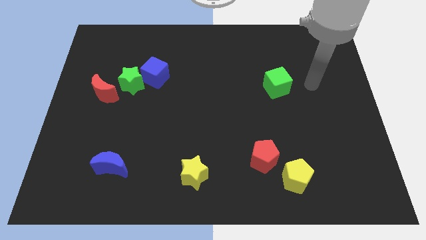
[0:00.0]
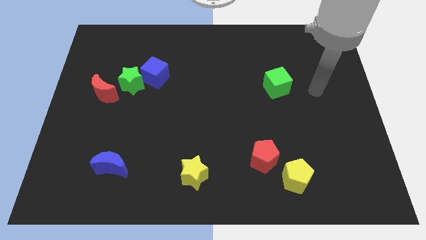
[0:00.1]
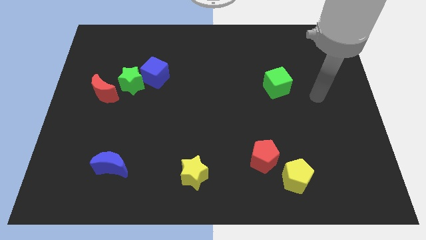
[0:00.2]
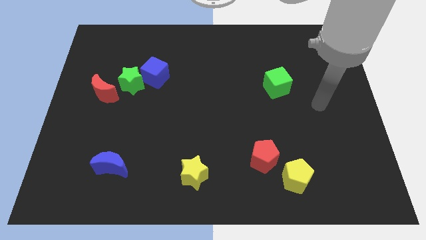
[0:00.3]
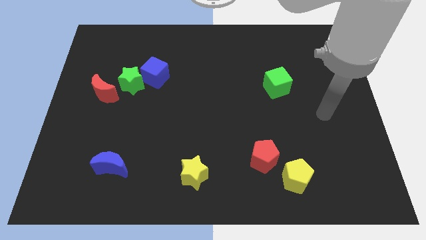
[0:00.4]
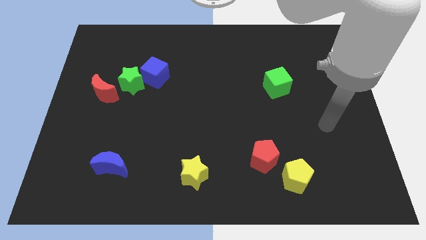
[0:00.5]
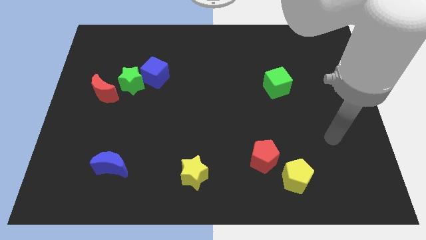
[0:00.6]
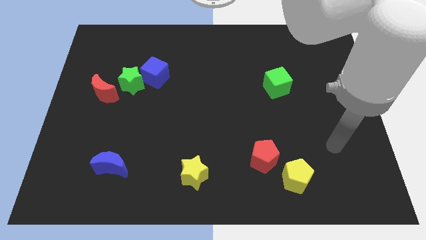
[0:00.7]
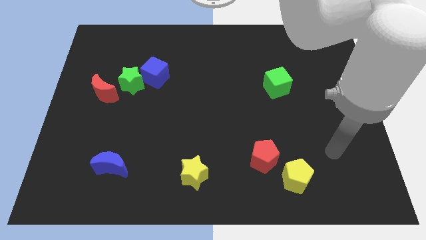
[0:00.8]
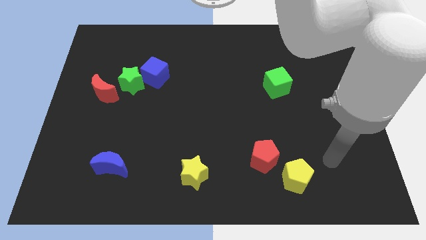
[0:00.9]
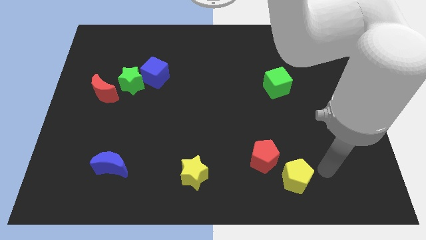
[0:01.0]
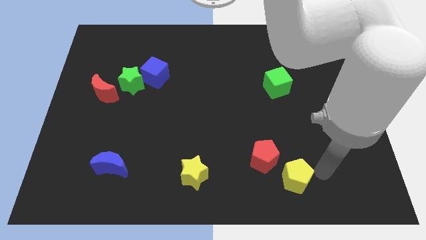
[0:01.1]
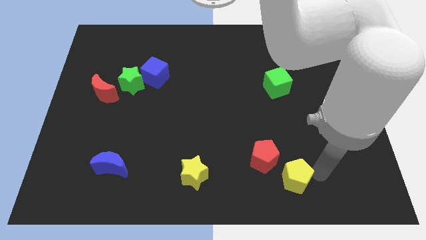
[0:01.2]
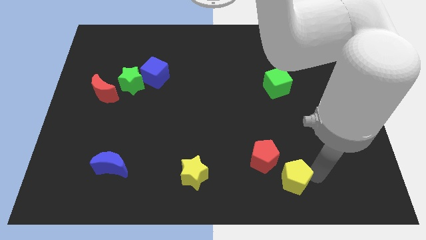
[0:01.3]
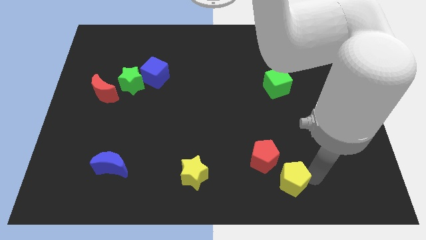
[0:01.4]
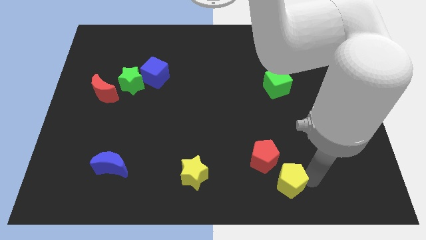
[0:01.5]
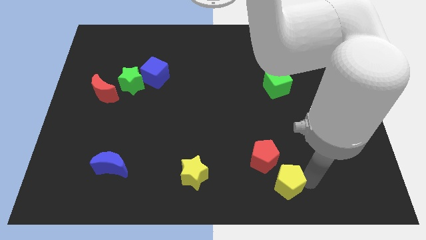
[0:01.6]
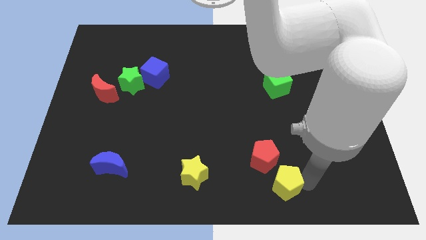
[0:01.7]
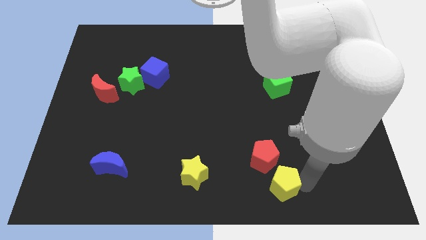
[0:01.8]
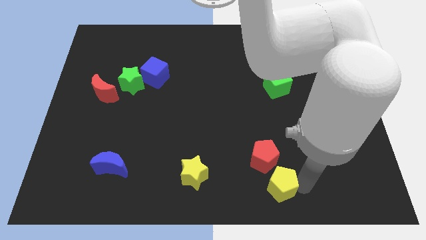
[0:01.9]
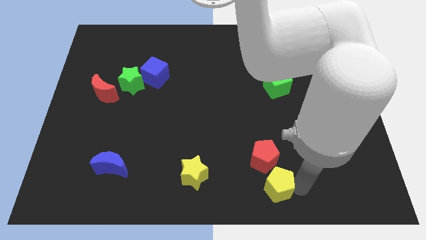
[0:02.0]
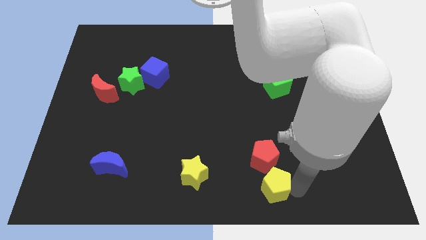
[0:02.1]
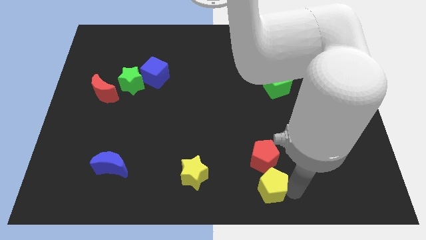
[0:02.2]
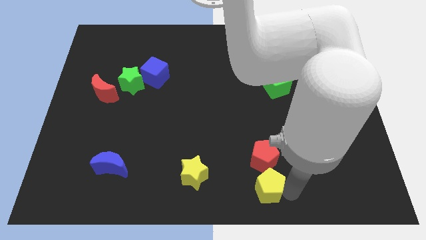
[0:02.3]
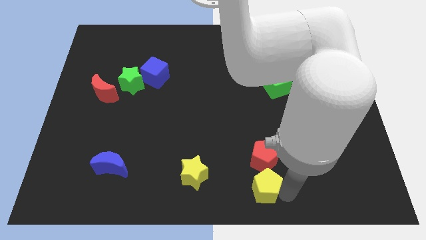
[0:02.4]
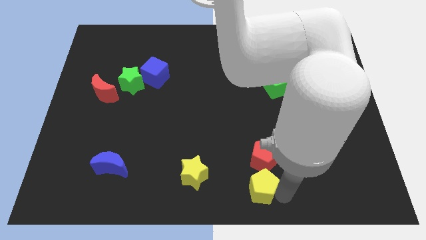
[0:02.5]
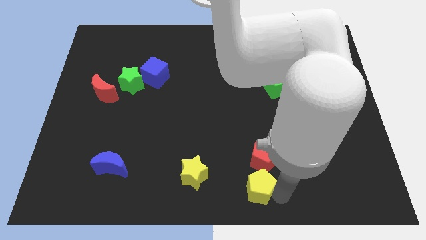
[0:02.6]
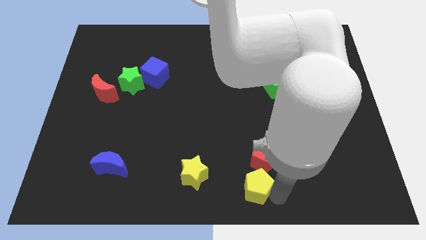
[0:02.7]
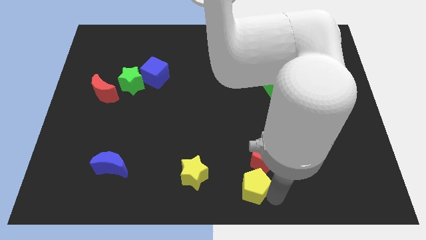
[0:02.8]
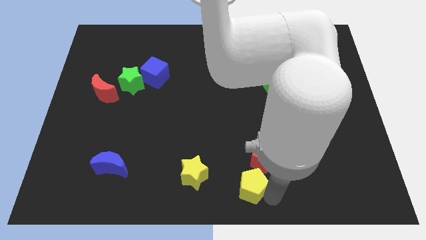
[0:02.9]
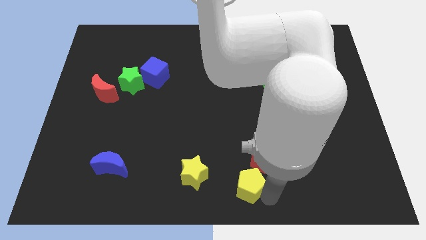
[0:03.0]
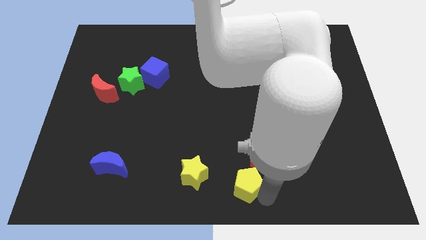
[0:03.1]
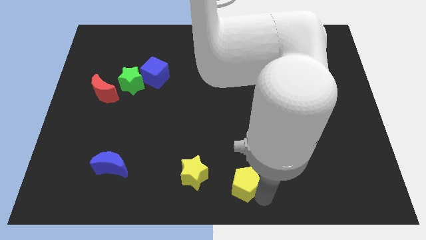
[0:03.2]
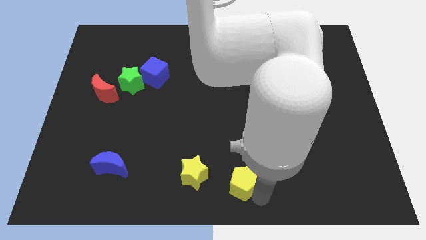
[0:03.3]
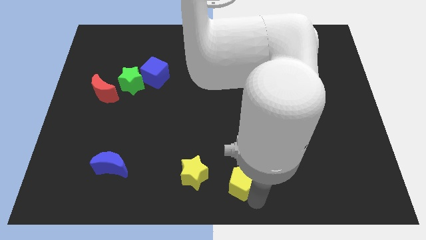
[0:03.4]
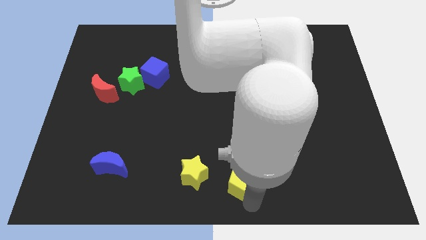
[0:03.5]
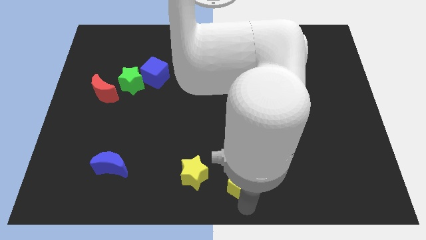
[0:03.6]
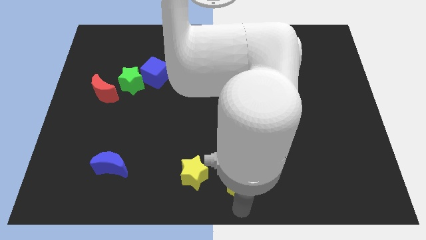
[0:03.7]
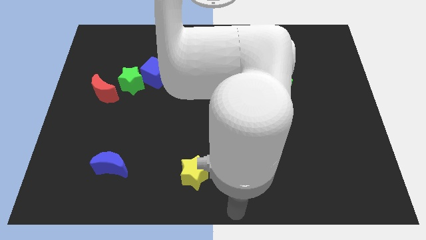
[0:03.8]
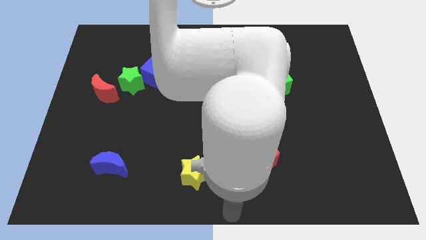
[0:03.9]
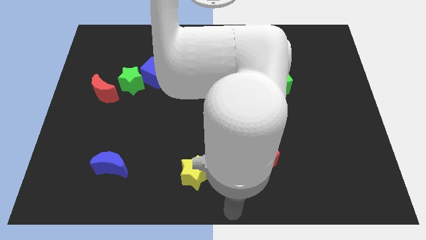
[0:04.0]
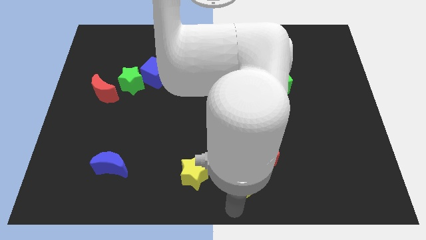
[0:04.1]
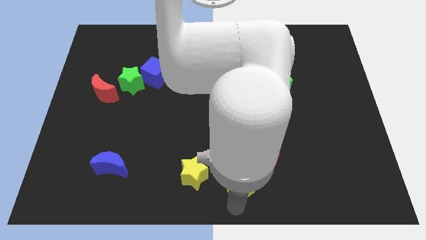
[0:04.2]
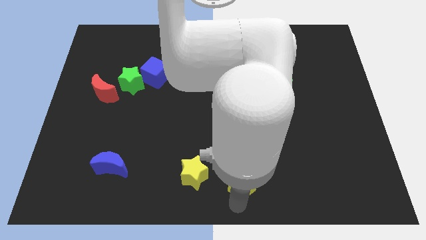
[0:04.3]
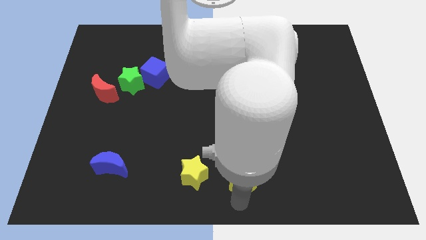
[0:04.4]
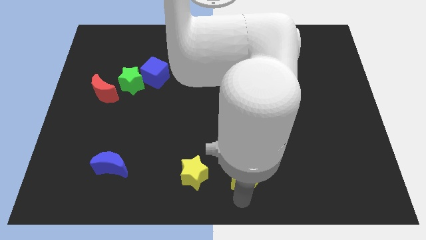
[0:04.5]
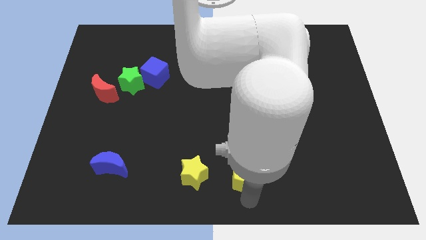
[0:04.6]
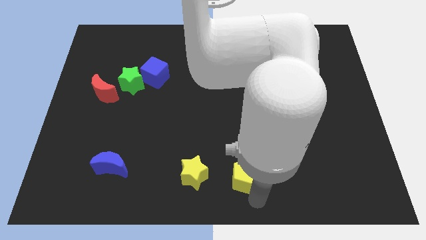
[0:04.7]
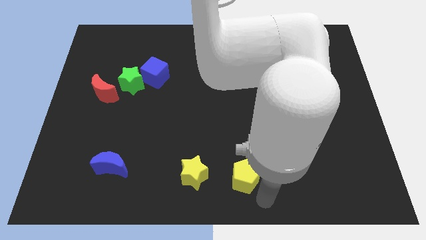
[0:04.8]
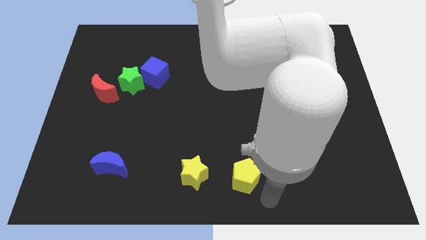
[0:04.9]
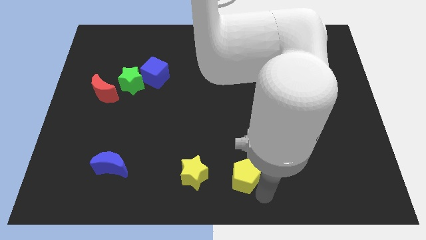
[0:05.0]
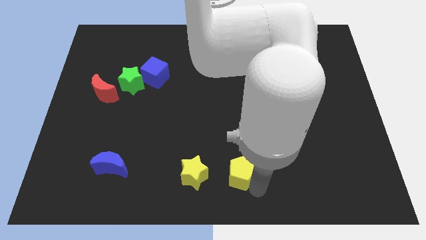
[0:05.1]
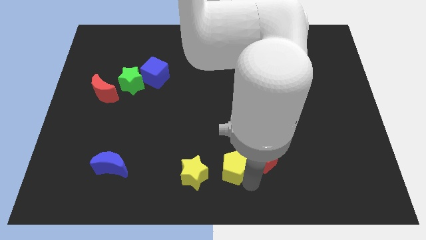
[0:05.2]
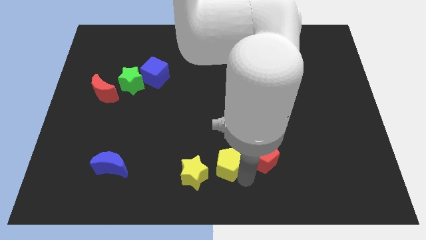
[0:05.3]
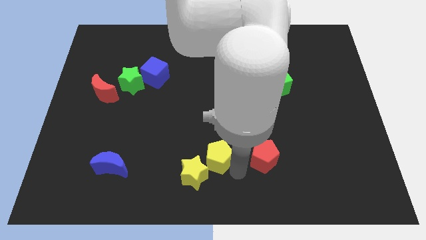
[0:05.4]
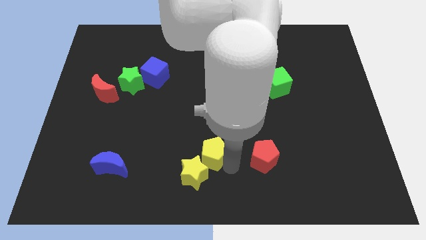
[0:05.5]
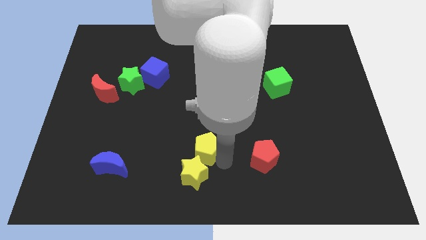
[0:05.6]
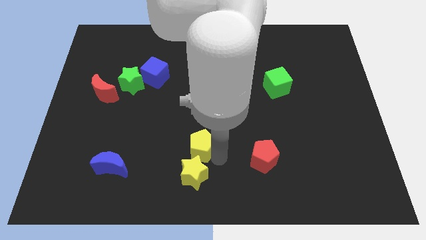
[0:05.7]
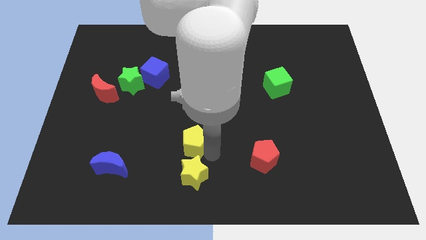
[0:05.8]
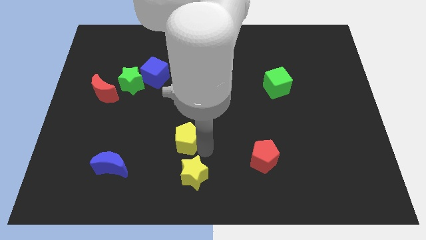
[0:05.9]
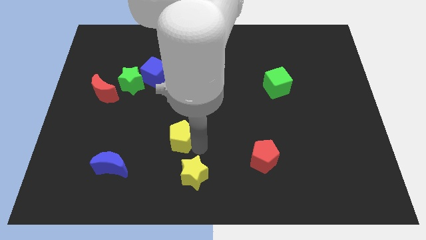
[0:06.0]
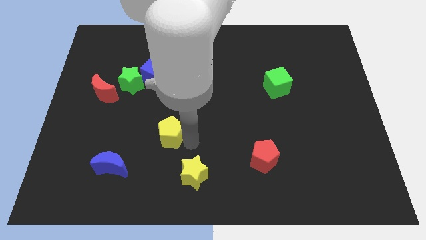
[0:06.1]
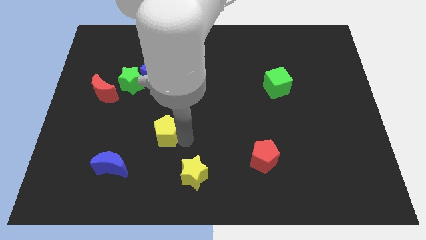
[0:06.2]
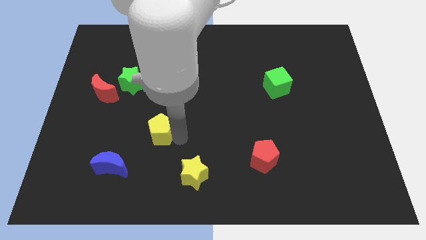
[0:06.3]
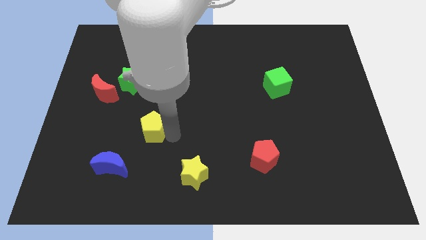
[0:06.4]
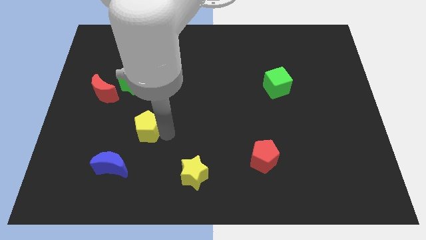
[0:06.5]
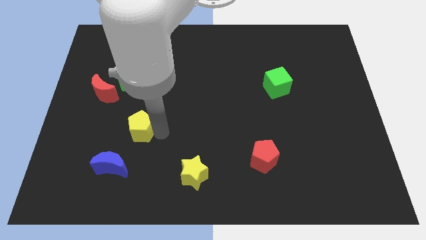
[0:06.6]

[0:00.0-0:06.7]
slide the yellow pentagon below the green star
